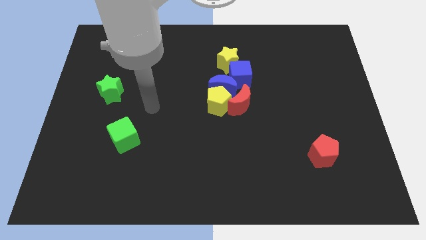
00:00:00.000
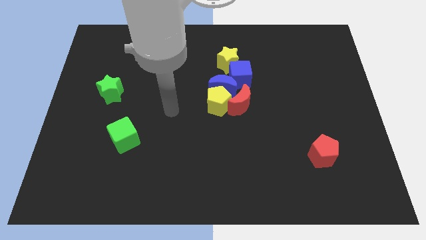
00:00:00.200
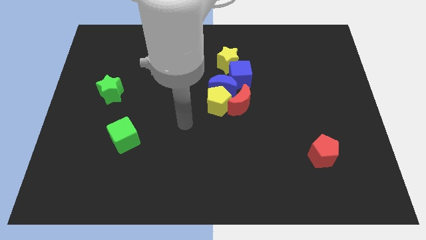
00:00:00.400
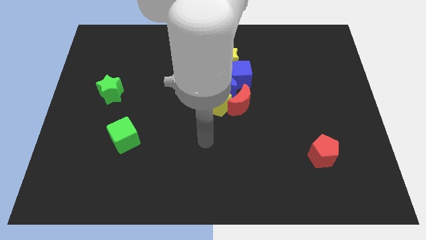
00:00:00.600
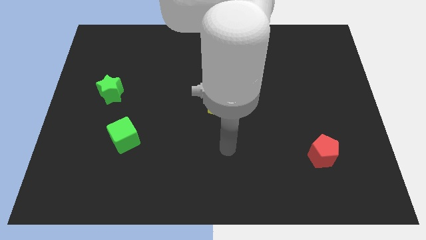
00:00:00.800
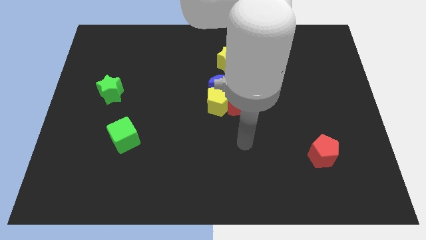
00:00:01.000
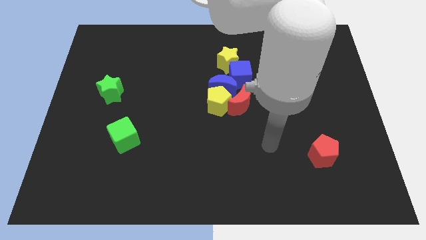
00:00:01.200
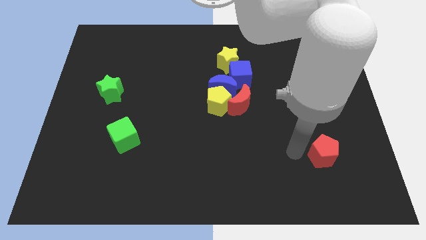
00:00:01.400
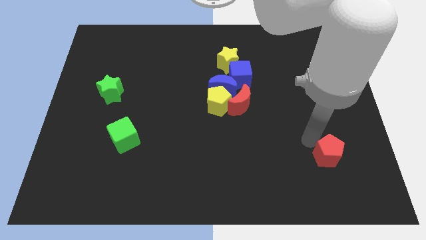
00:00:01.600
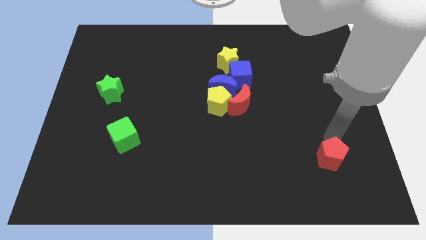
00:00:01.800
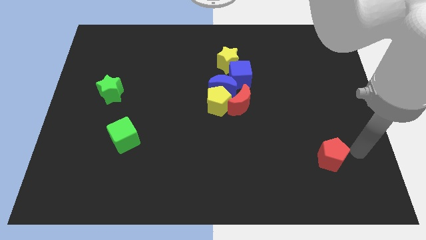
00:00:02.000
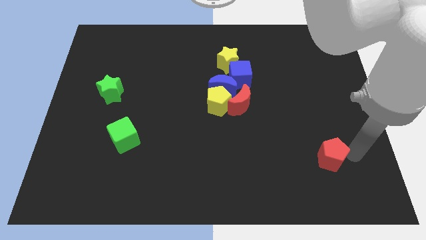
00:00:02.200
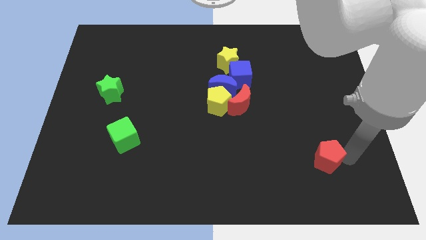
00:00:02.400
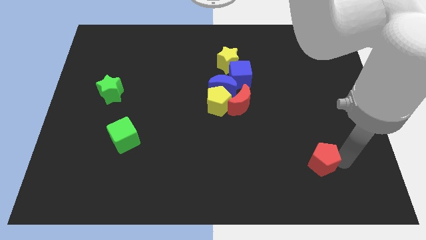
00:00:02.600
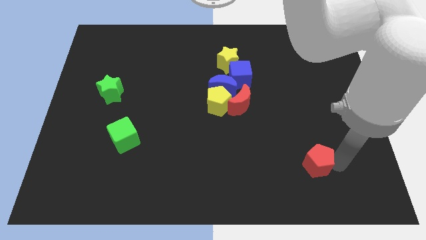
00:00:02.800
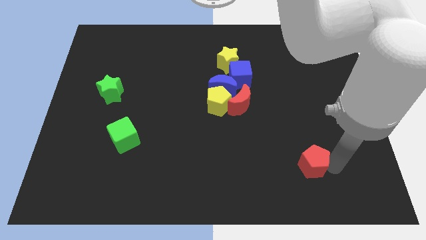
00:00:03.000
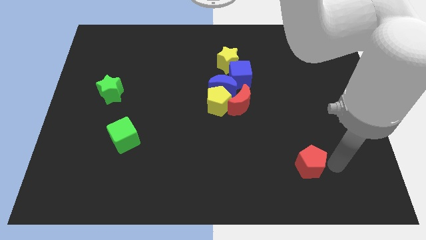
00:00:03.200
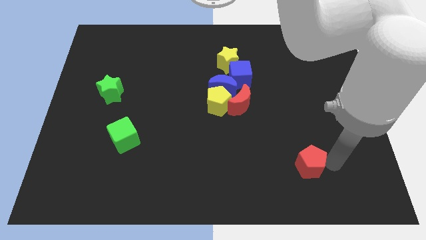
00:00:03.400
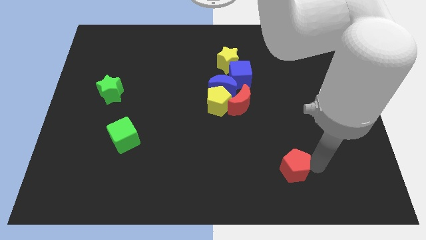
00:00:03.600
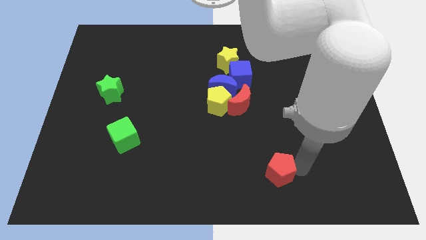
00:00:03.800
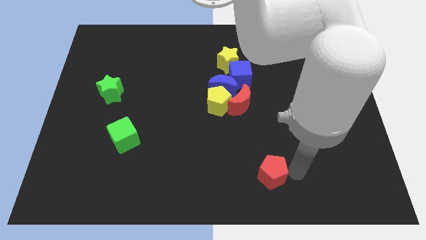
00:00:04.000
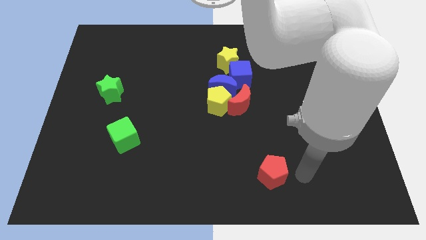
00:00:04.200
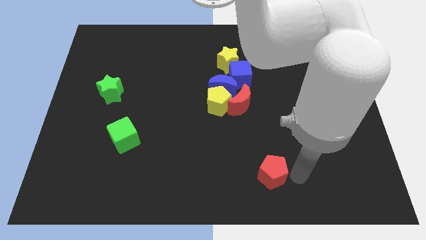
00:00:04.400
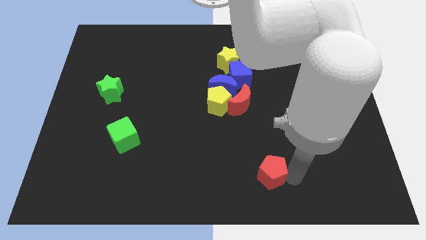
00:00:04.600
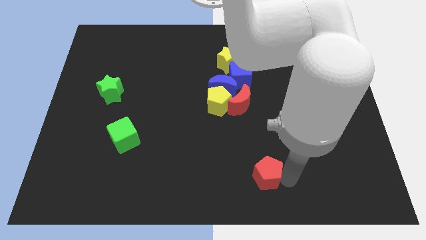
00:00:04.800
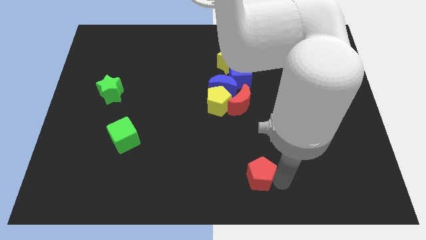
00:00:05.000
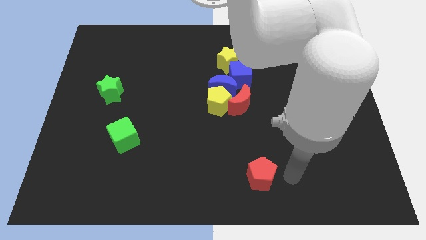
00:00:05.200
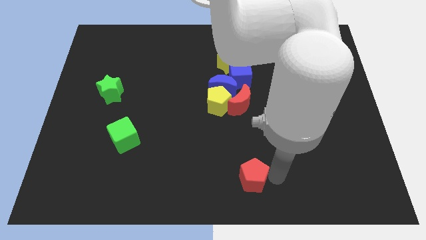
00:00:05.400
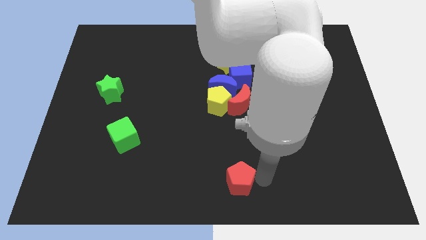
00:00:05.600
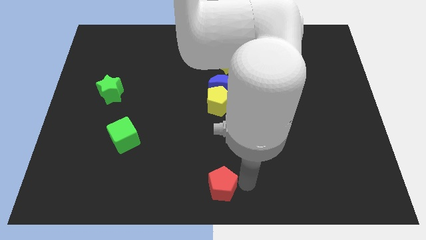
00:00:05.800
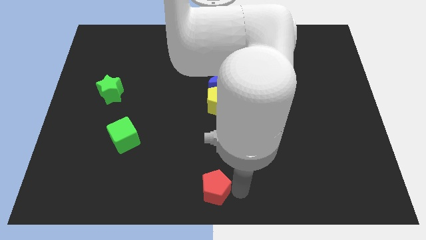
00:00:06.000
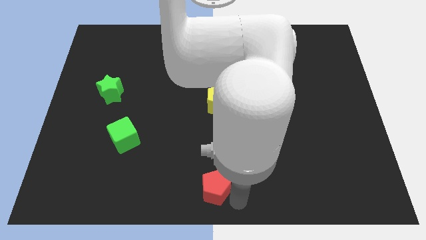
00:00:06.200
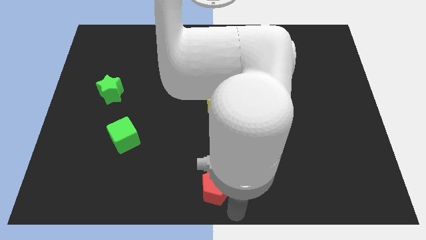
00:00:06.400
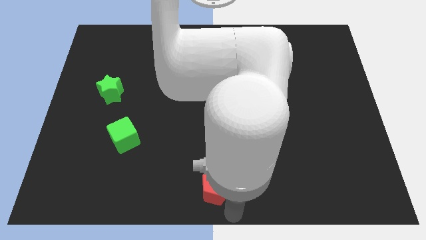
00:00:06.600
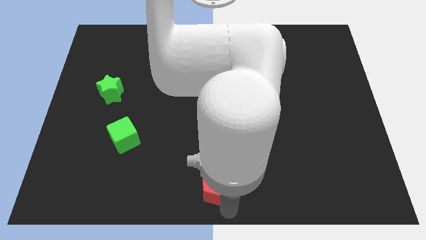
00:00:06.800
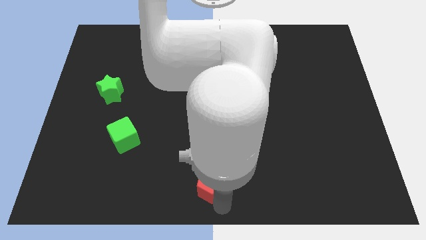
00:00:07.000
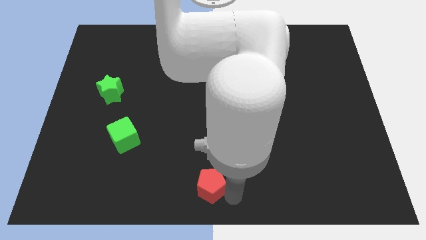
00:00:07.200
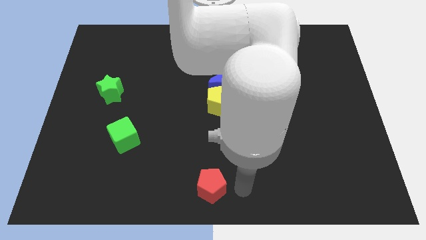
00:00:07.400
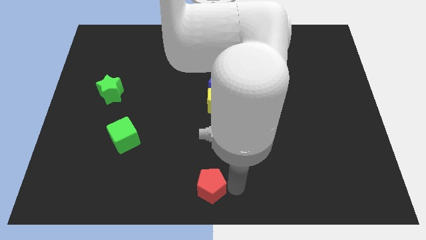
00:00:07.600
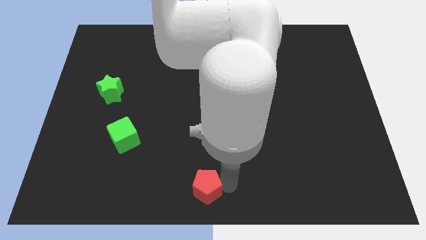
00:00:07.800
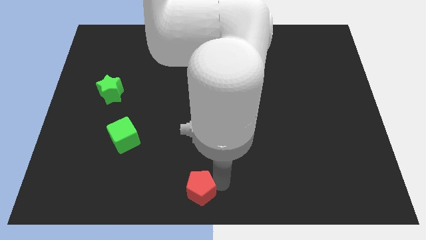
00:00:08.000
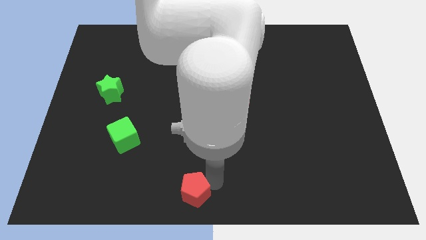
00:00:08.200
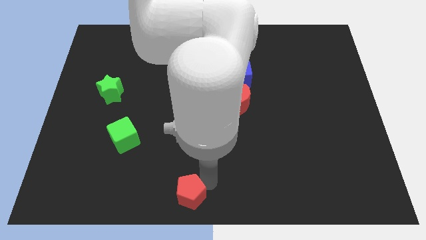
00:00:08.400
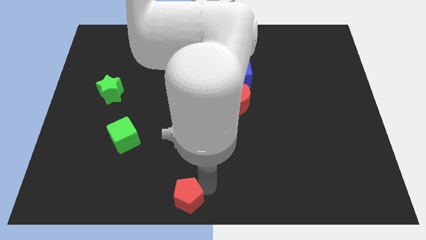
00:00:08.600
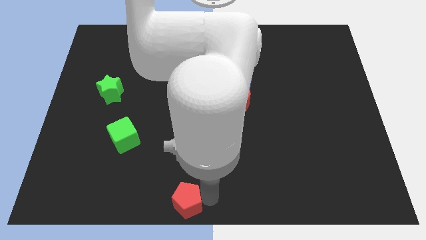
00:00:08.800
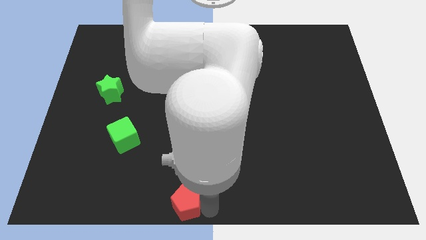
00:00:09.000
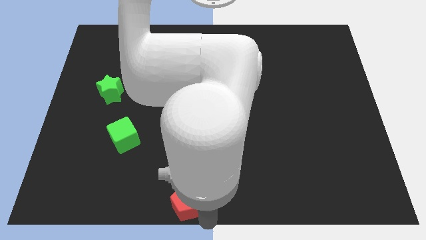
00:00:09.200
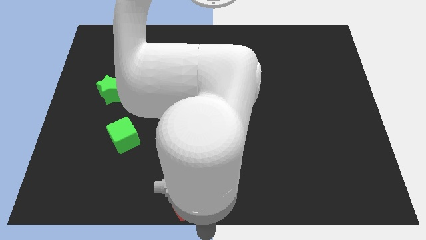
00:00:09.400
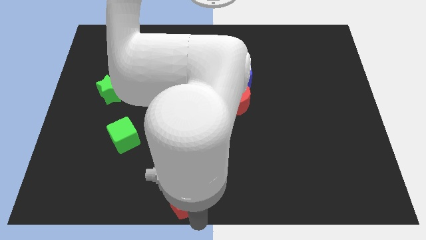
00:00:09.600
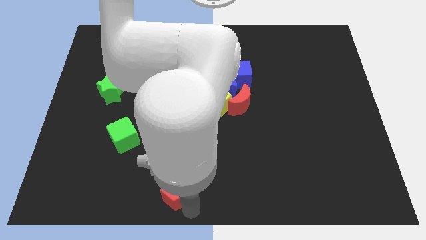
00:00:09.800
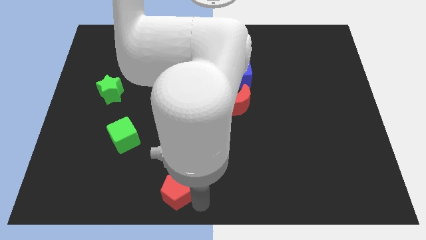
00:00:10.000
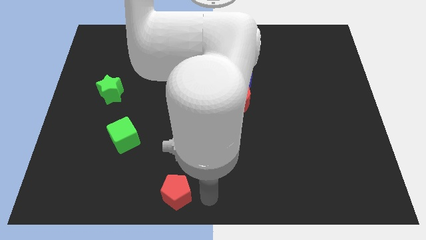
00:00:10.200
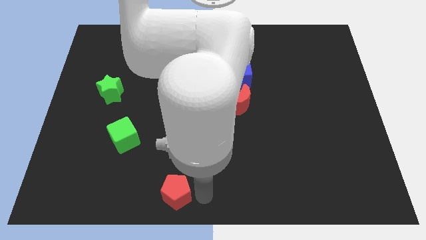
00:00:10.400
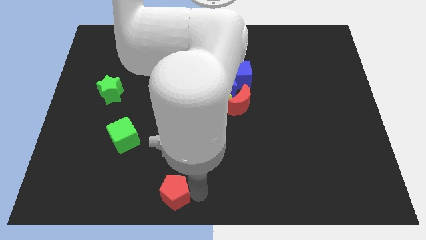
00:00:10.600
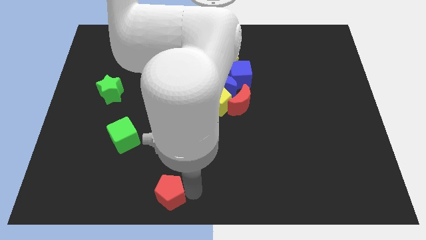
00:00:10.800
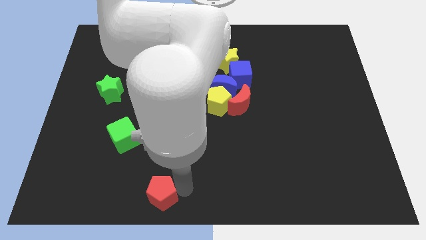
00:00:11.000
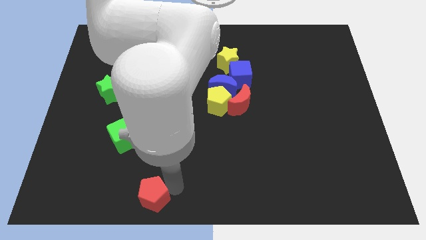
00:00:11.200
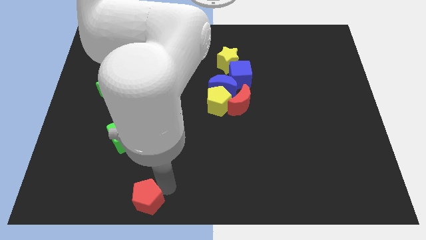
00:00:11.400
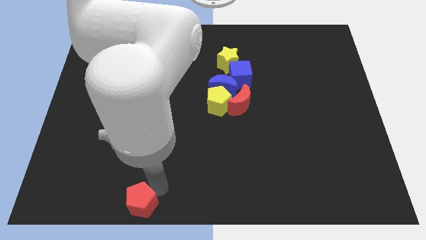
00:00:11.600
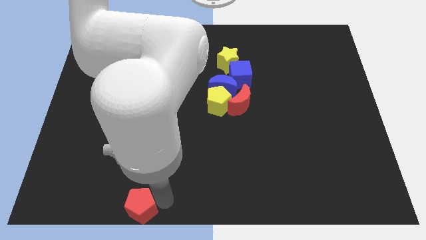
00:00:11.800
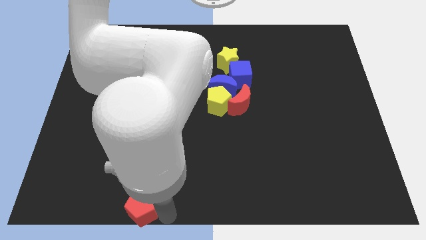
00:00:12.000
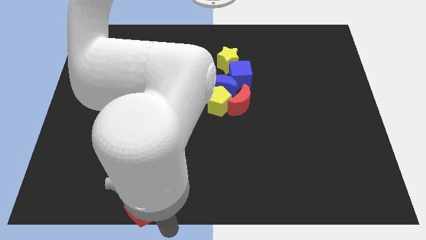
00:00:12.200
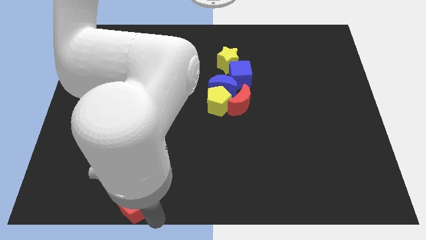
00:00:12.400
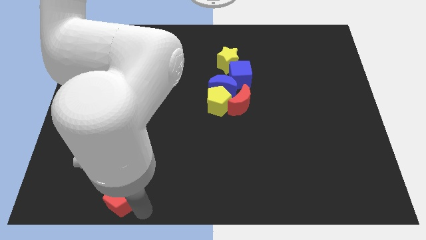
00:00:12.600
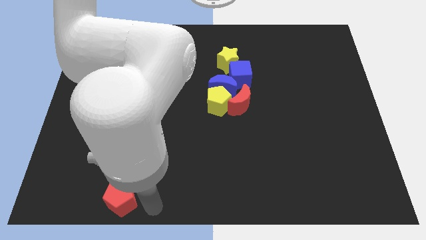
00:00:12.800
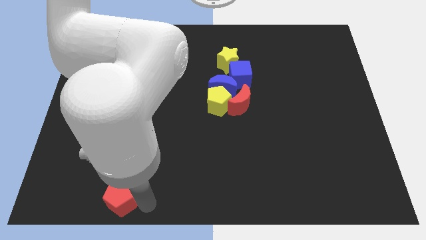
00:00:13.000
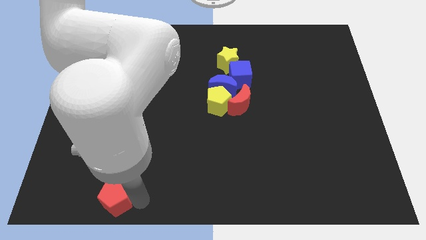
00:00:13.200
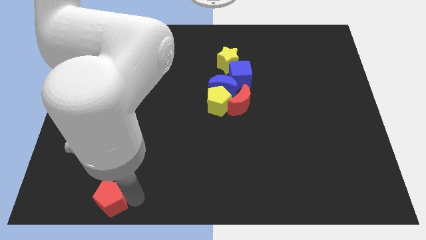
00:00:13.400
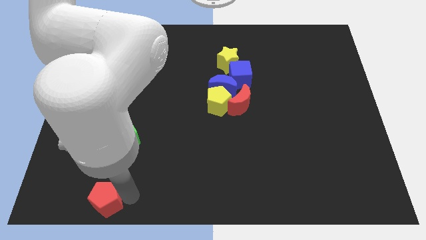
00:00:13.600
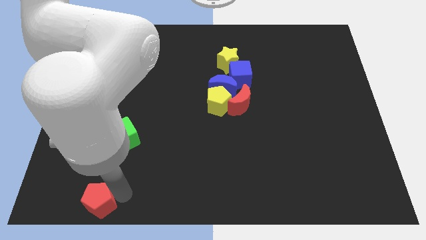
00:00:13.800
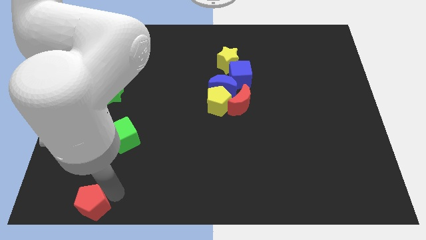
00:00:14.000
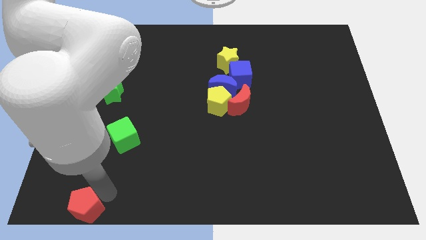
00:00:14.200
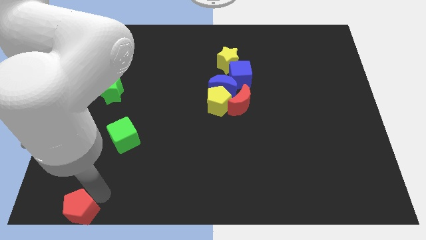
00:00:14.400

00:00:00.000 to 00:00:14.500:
put the red pentagon to the bottom left of the board
